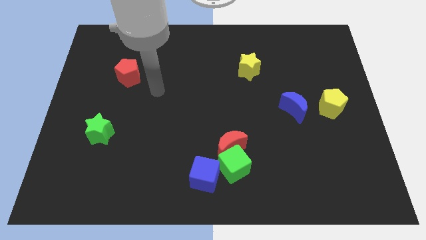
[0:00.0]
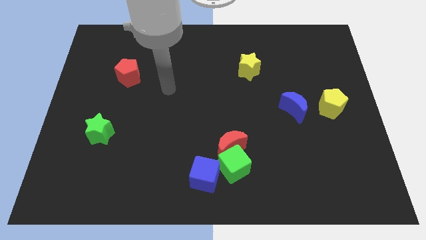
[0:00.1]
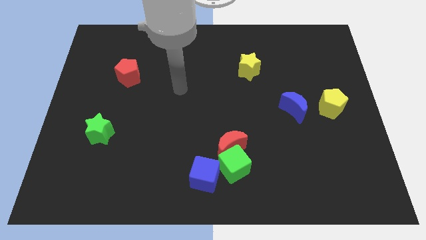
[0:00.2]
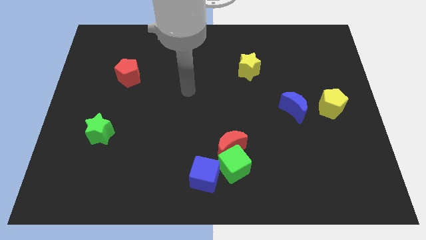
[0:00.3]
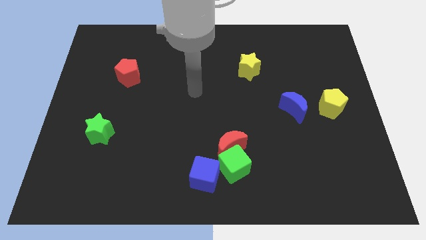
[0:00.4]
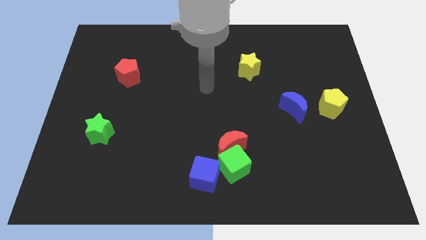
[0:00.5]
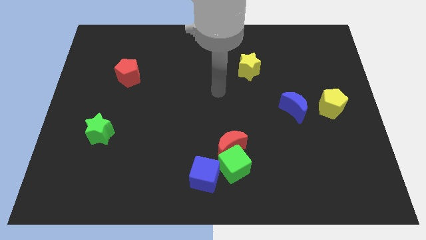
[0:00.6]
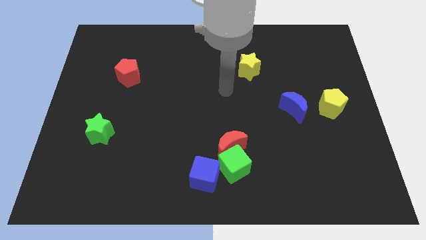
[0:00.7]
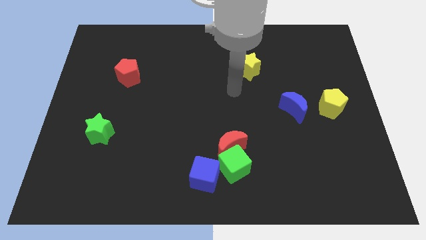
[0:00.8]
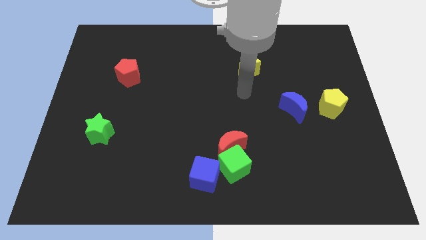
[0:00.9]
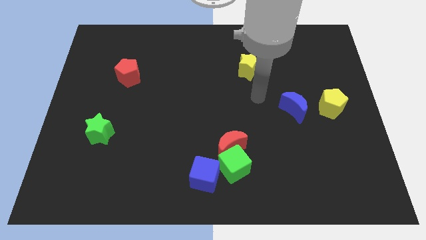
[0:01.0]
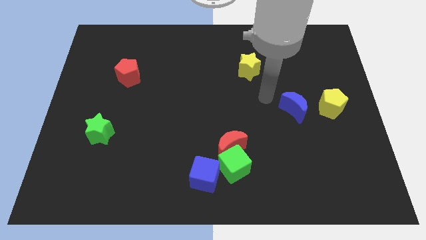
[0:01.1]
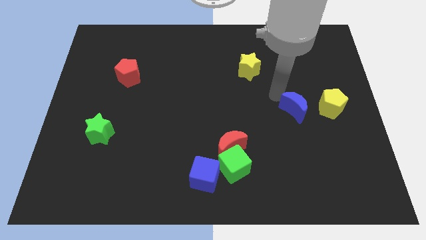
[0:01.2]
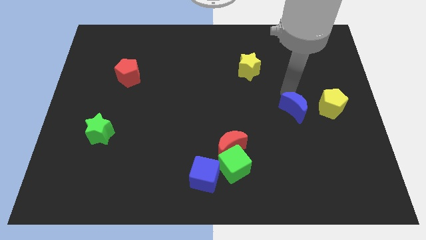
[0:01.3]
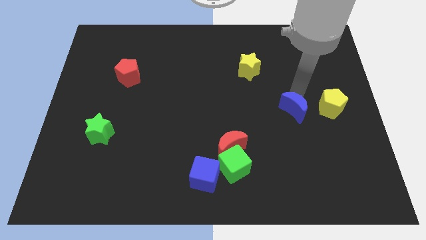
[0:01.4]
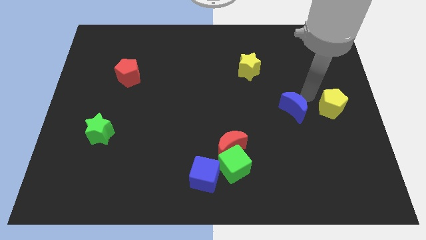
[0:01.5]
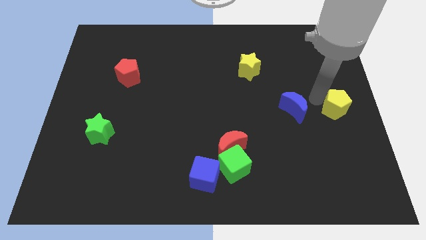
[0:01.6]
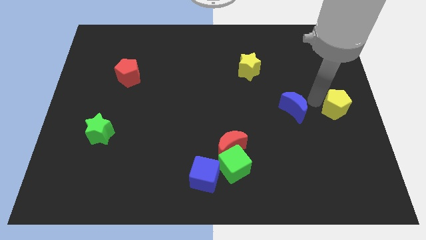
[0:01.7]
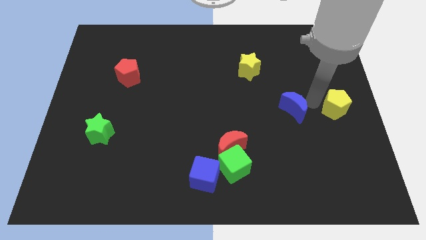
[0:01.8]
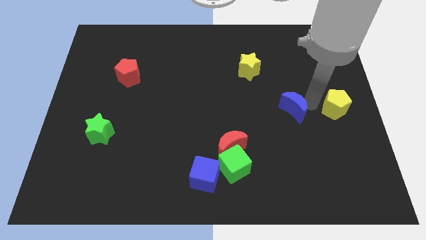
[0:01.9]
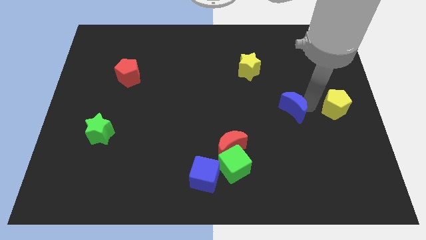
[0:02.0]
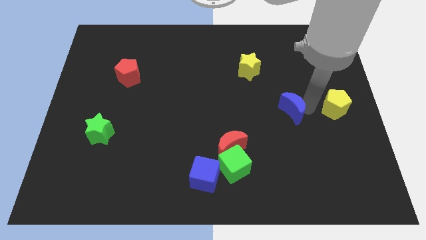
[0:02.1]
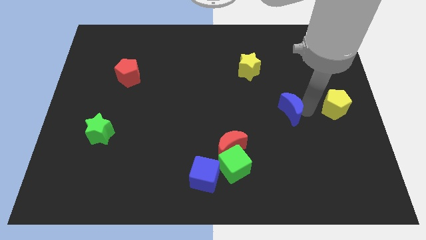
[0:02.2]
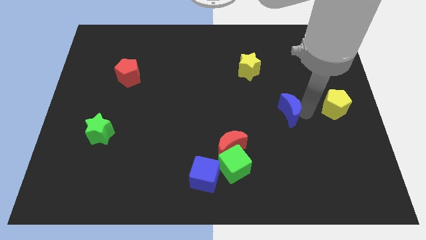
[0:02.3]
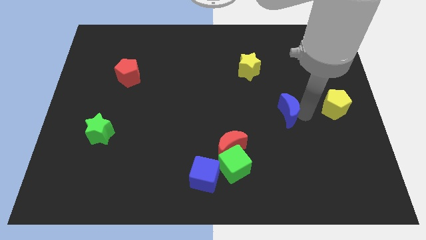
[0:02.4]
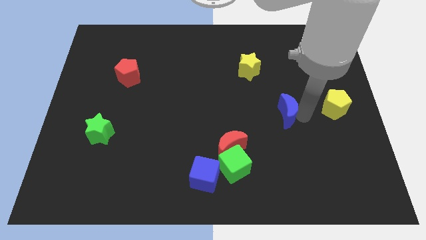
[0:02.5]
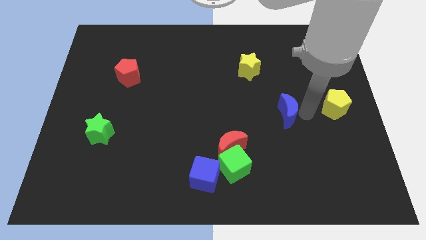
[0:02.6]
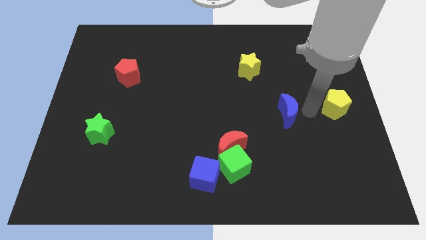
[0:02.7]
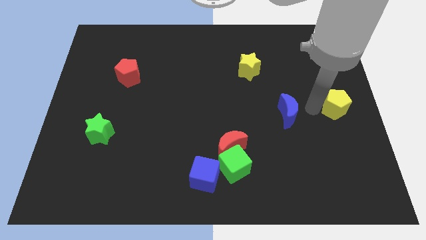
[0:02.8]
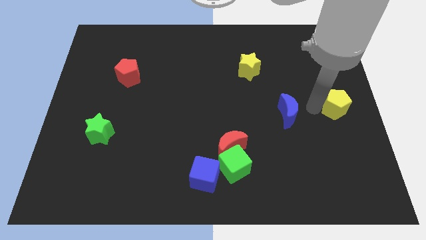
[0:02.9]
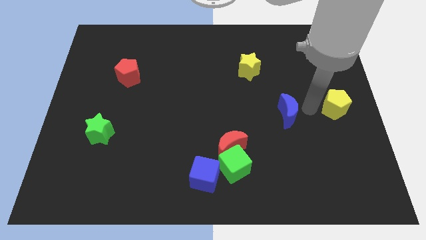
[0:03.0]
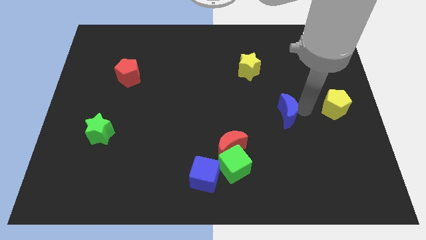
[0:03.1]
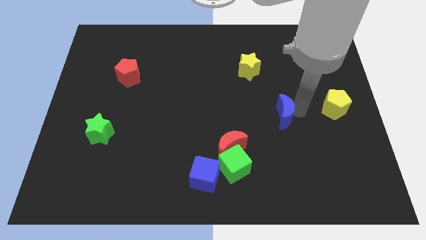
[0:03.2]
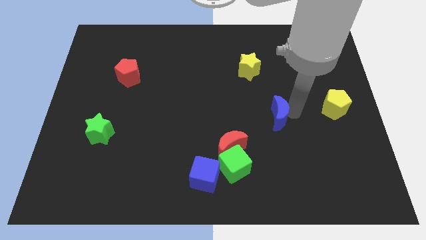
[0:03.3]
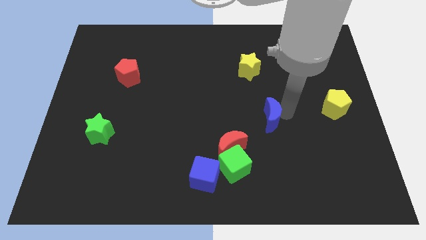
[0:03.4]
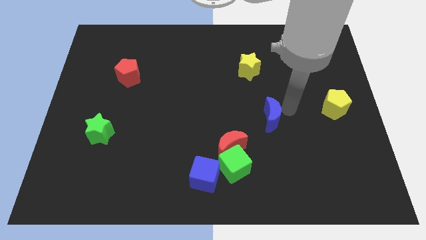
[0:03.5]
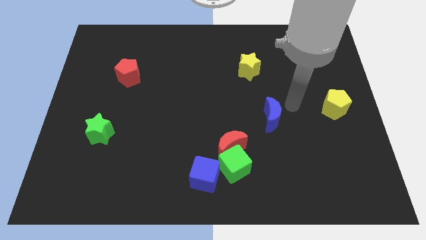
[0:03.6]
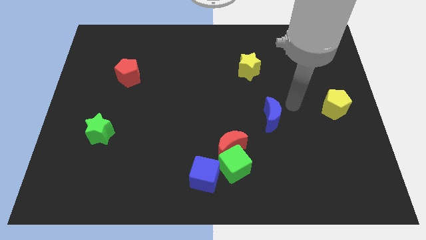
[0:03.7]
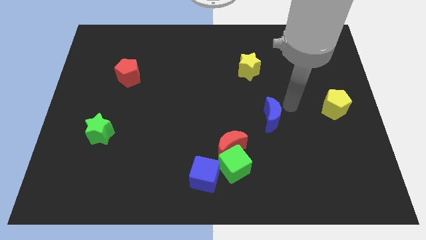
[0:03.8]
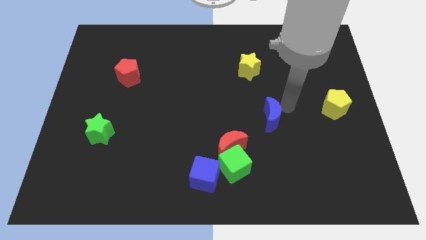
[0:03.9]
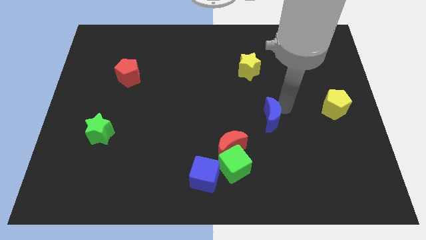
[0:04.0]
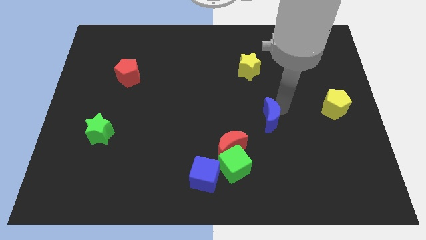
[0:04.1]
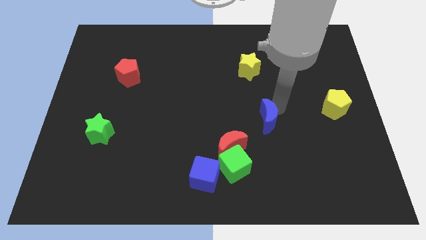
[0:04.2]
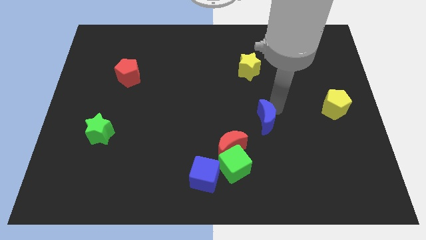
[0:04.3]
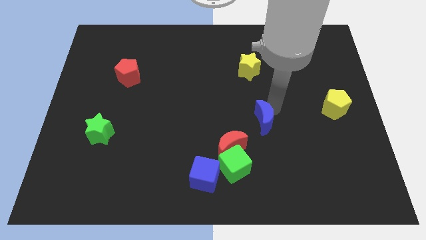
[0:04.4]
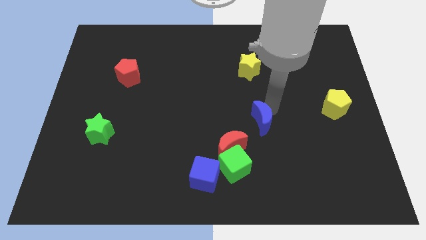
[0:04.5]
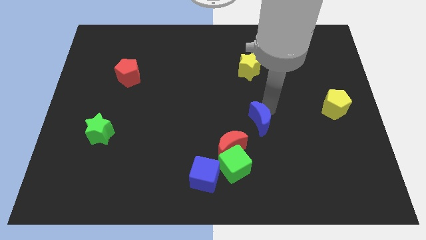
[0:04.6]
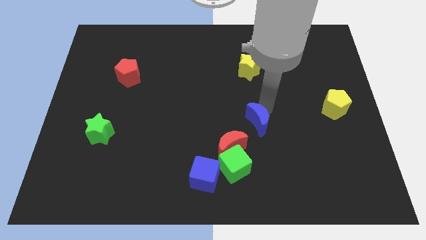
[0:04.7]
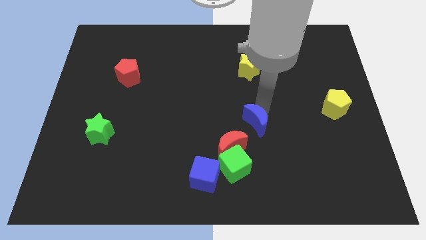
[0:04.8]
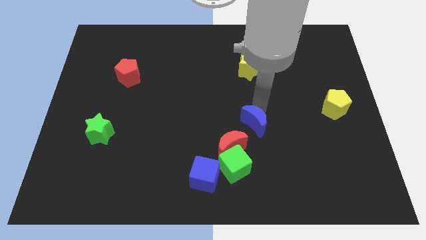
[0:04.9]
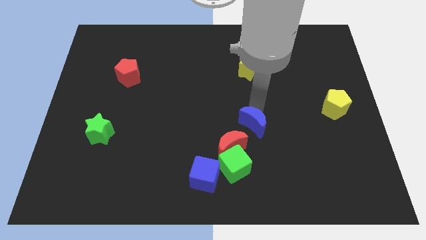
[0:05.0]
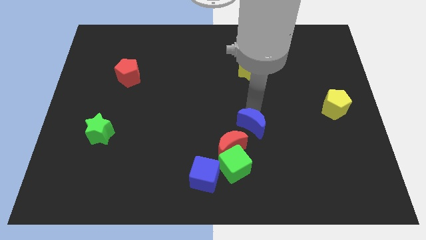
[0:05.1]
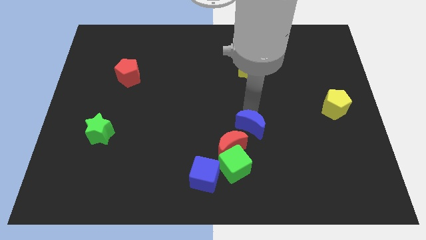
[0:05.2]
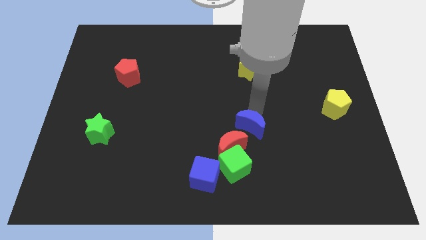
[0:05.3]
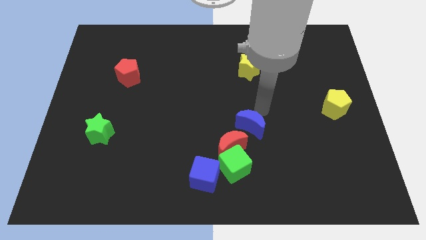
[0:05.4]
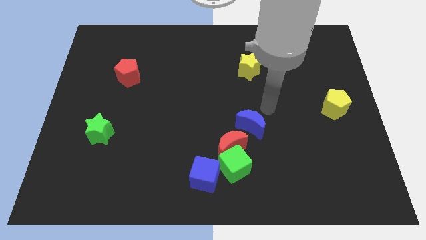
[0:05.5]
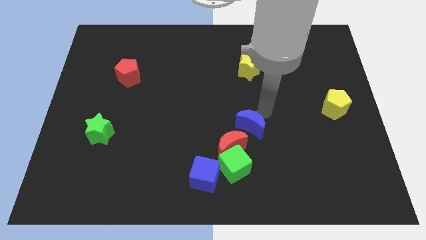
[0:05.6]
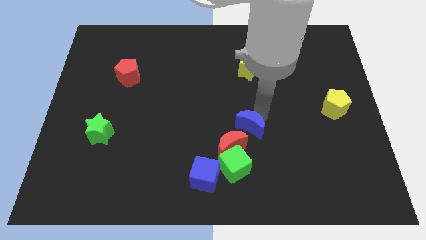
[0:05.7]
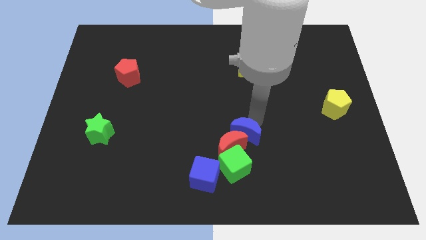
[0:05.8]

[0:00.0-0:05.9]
push the blue moon to the red moon

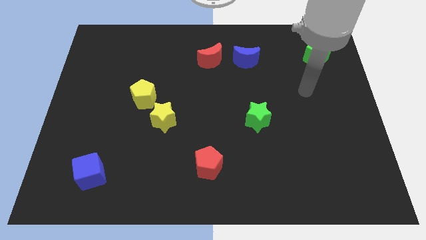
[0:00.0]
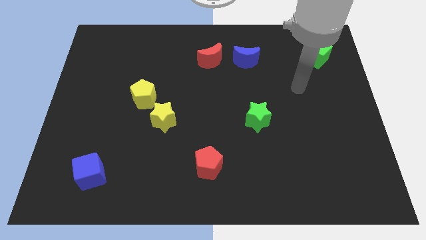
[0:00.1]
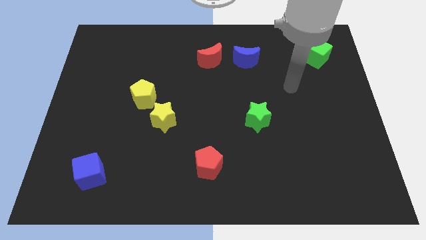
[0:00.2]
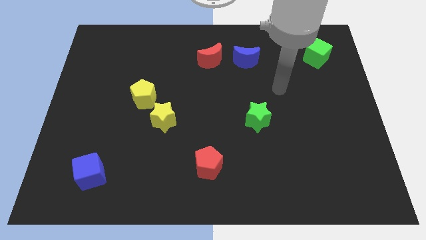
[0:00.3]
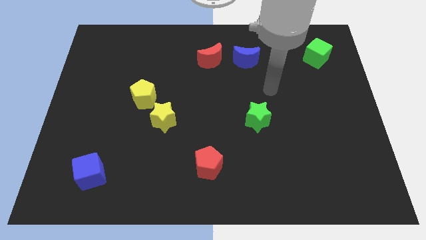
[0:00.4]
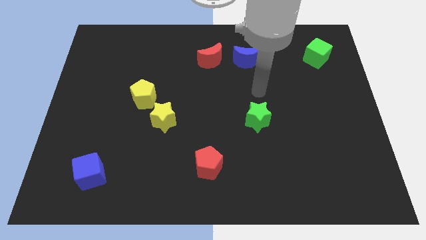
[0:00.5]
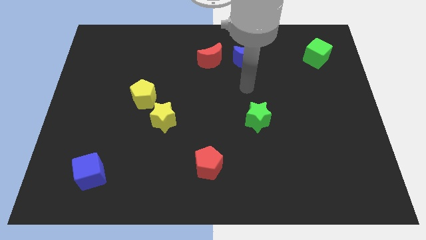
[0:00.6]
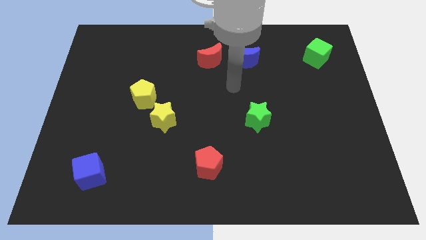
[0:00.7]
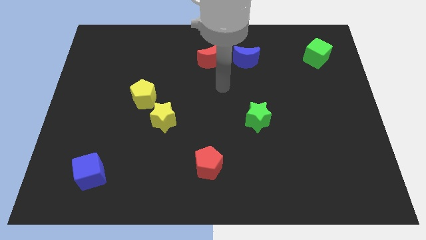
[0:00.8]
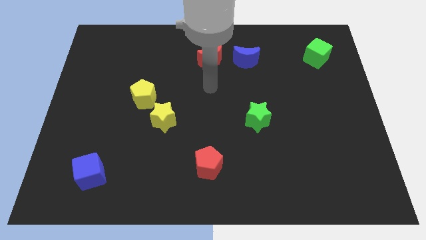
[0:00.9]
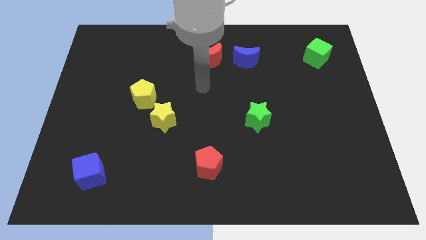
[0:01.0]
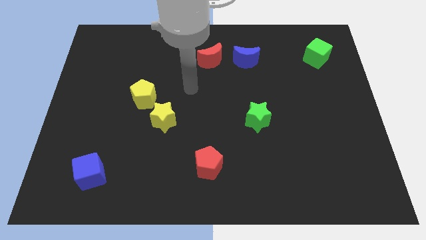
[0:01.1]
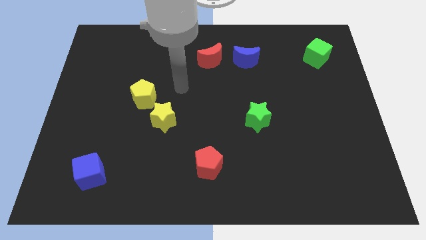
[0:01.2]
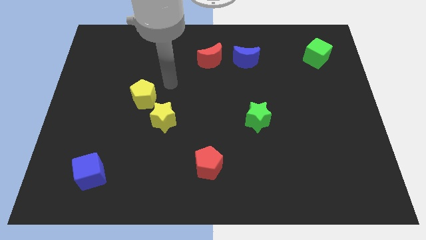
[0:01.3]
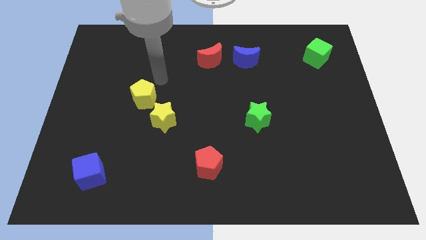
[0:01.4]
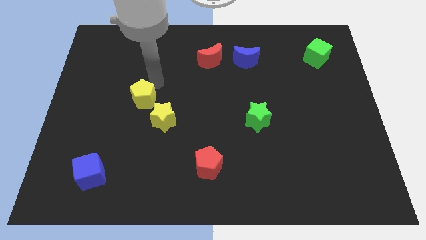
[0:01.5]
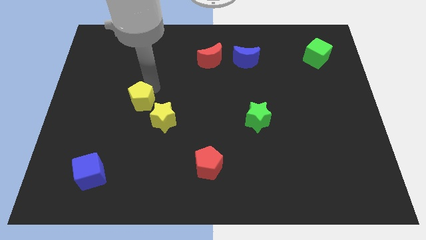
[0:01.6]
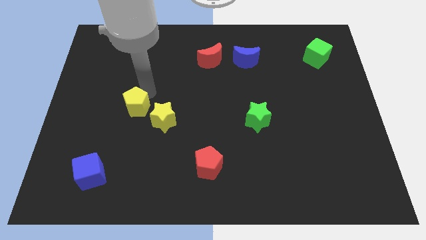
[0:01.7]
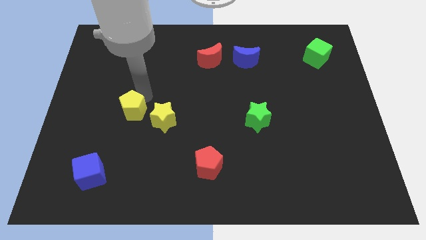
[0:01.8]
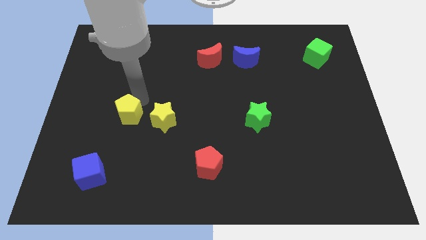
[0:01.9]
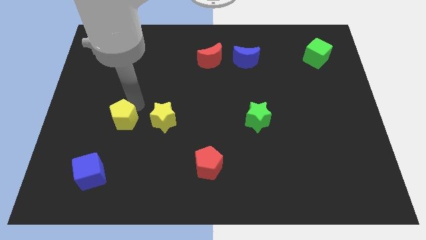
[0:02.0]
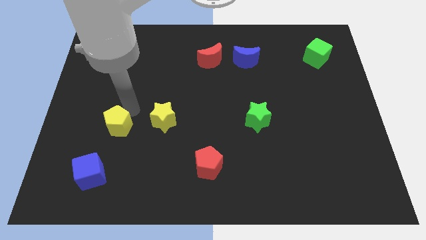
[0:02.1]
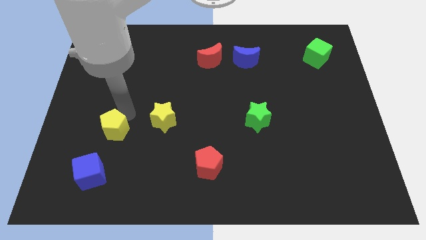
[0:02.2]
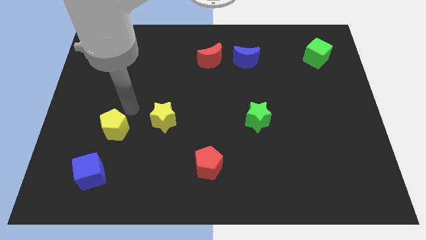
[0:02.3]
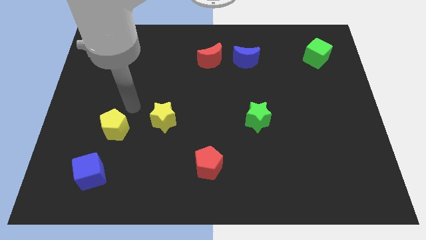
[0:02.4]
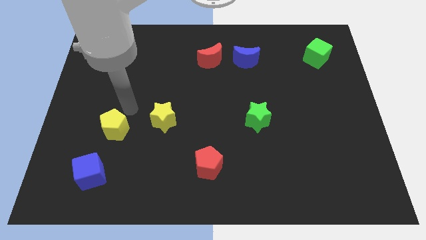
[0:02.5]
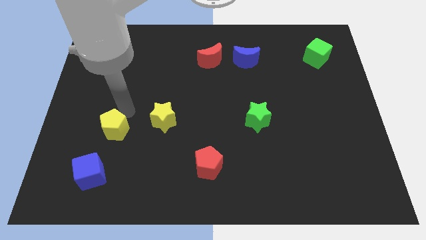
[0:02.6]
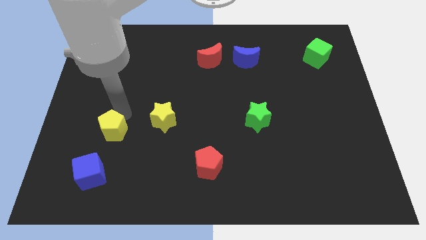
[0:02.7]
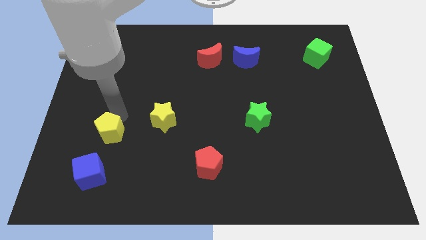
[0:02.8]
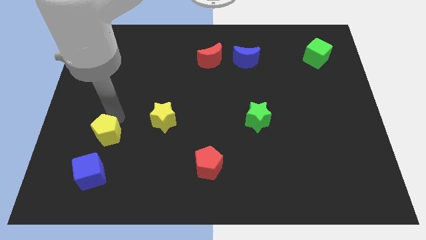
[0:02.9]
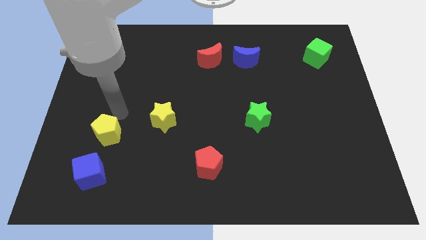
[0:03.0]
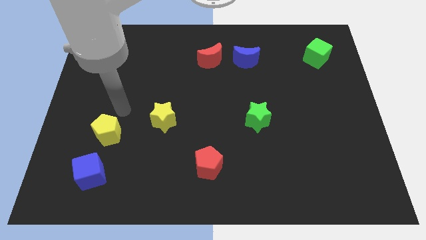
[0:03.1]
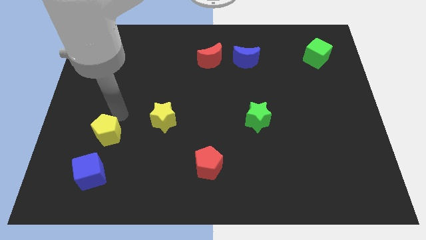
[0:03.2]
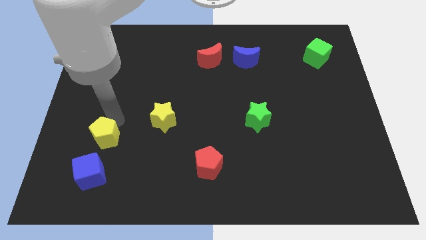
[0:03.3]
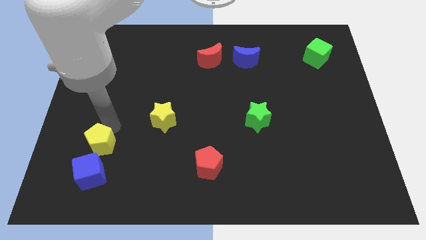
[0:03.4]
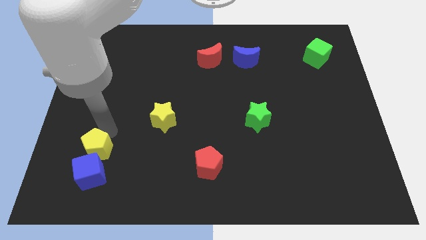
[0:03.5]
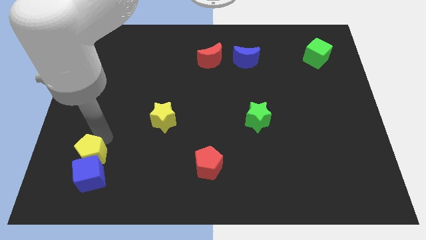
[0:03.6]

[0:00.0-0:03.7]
slide the yellow pentagon towards the blue cube
